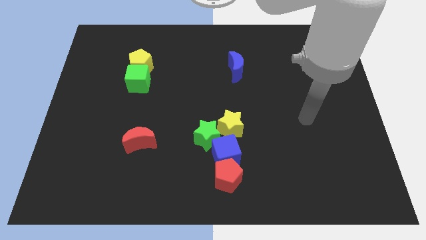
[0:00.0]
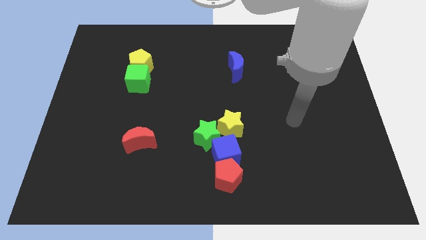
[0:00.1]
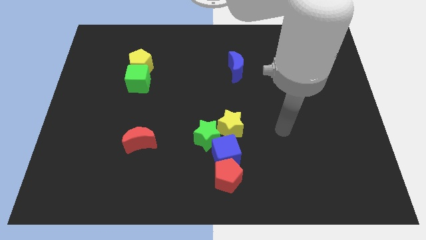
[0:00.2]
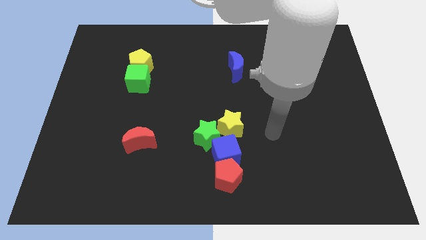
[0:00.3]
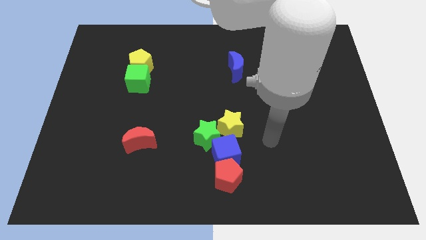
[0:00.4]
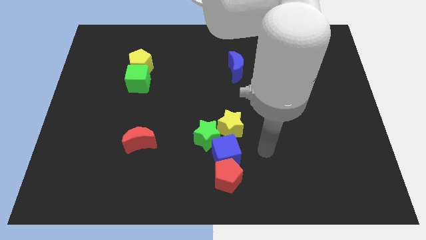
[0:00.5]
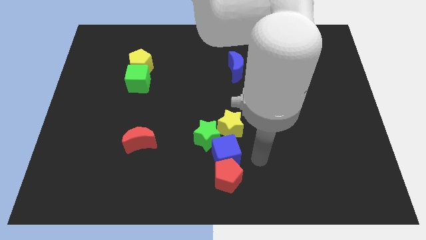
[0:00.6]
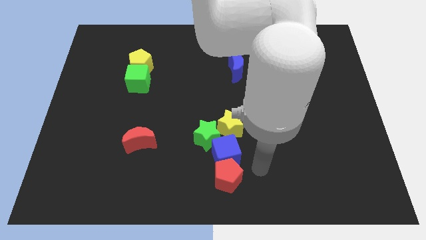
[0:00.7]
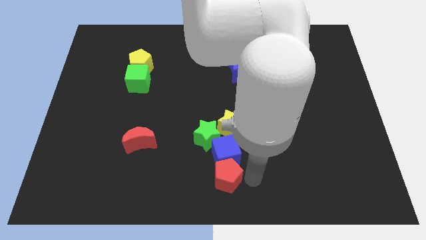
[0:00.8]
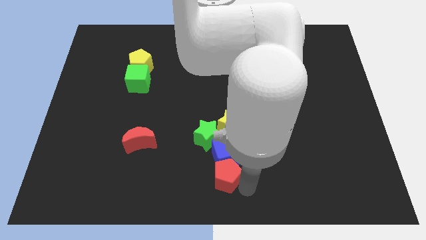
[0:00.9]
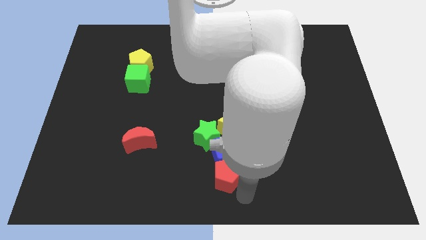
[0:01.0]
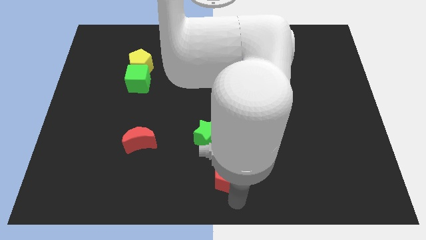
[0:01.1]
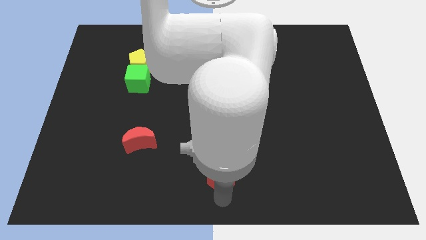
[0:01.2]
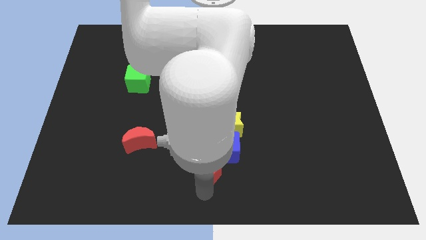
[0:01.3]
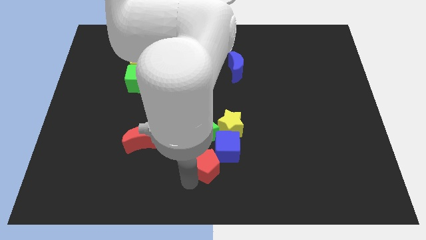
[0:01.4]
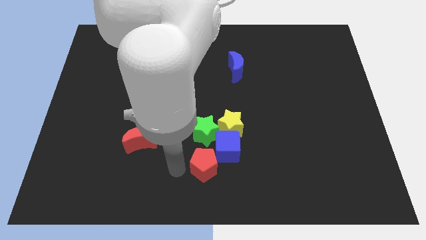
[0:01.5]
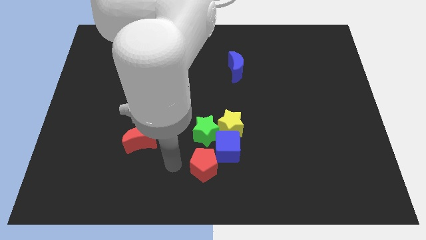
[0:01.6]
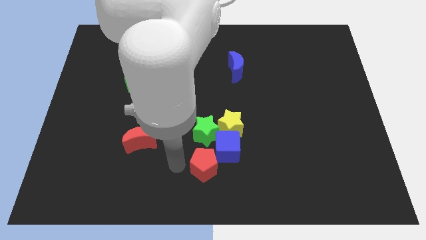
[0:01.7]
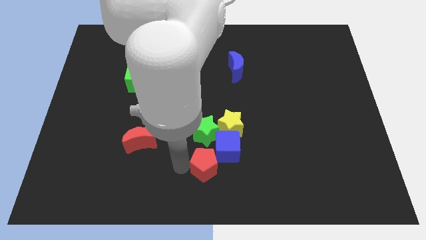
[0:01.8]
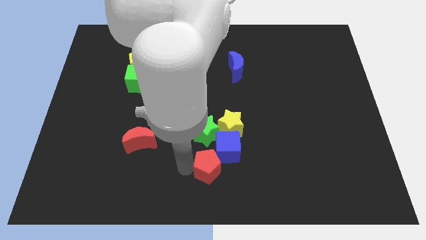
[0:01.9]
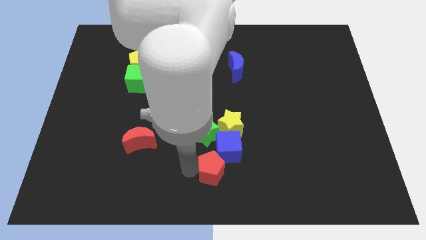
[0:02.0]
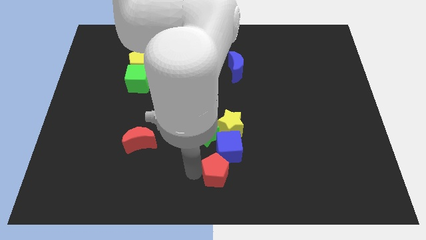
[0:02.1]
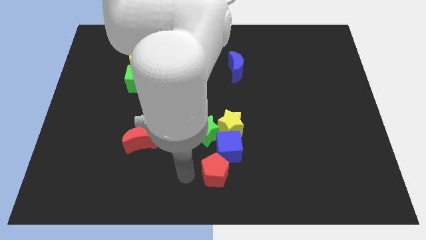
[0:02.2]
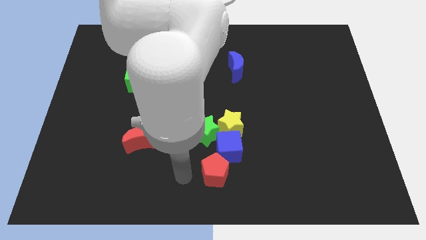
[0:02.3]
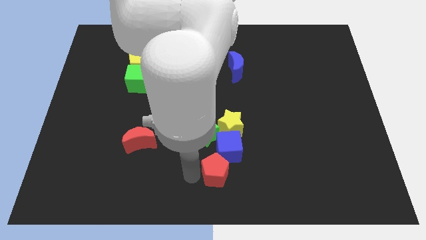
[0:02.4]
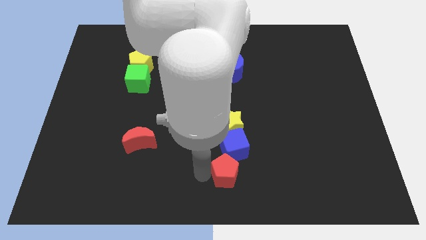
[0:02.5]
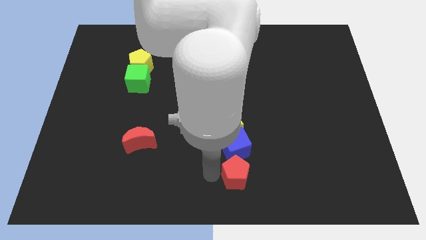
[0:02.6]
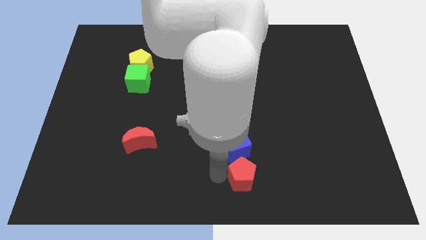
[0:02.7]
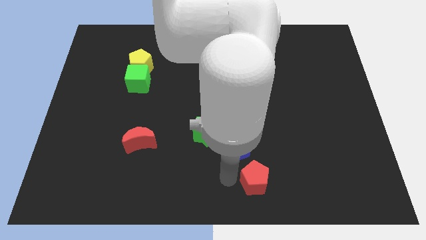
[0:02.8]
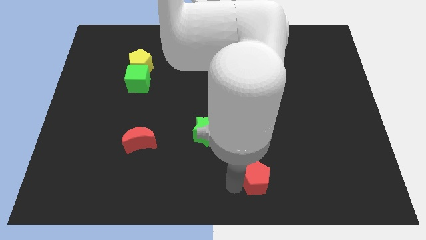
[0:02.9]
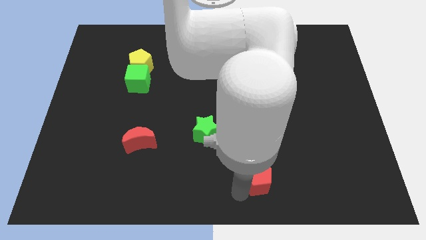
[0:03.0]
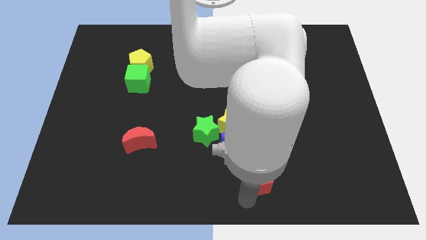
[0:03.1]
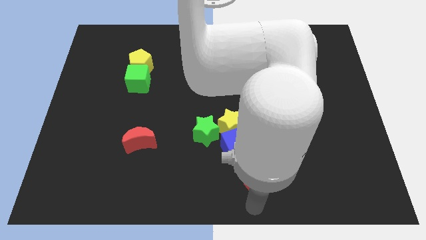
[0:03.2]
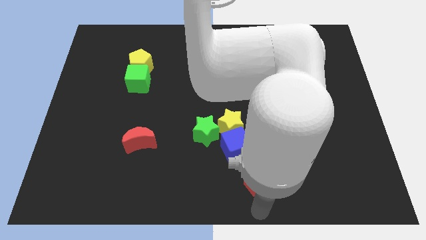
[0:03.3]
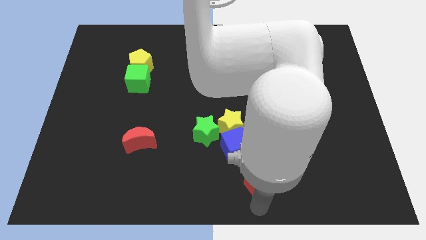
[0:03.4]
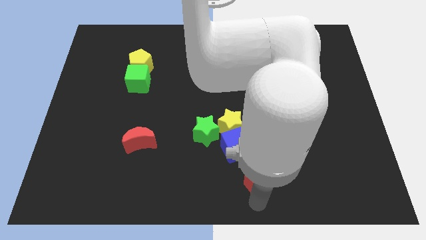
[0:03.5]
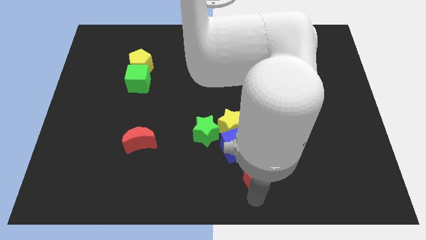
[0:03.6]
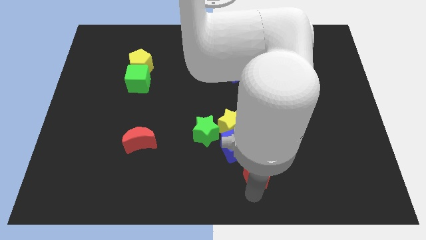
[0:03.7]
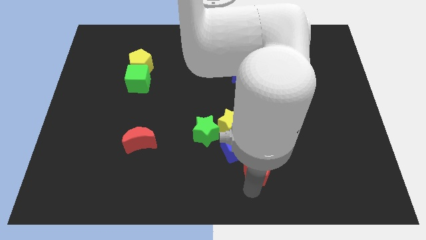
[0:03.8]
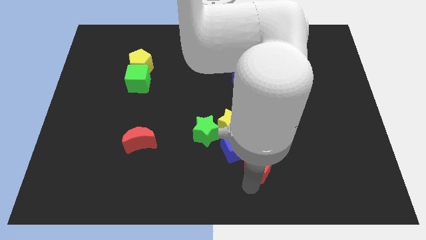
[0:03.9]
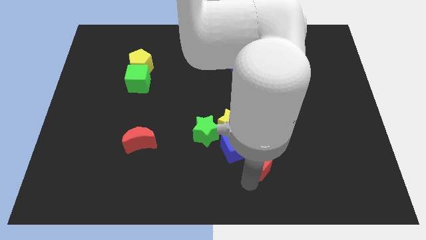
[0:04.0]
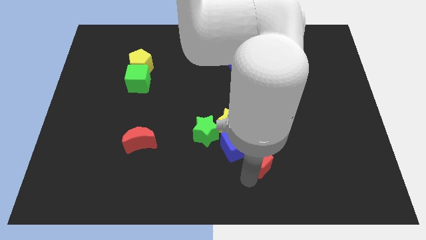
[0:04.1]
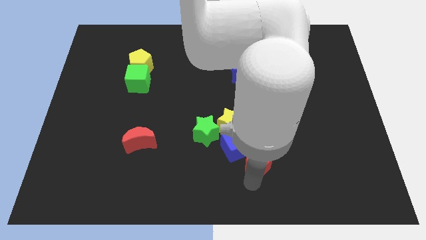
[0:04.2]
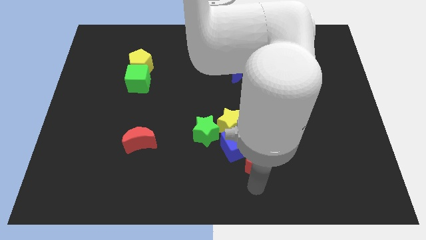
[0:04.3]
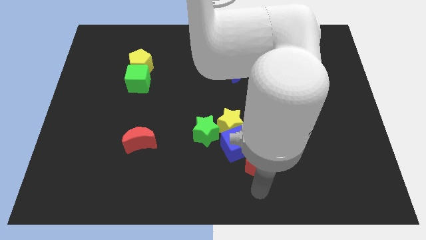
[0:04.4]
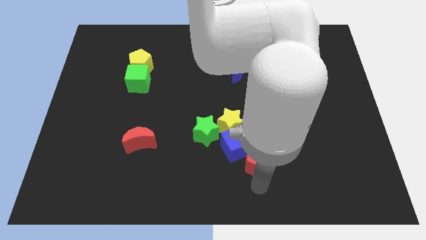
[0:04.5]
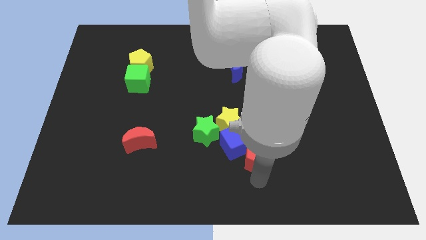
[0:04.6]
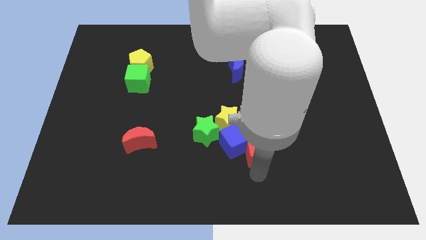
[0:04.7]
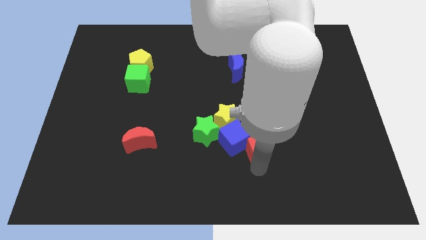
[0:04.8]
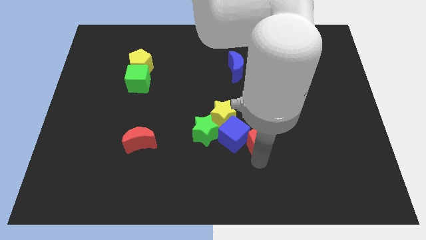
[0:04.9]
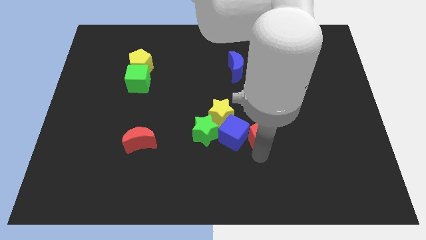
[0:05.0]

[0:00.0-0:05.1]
move the red pentagon a little upwards

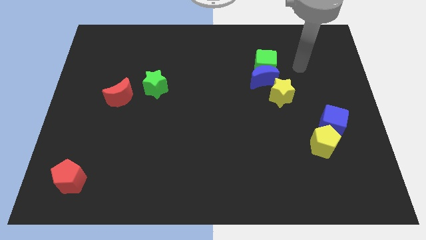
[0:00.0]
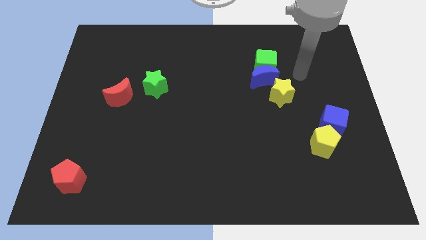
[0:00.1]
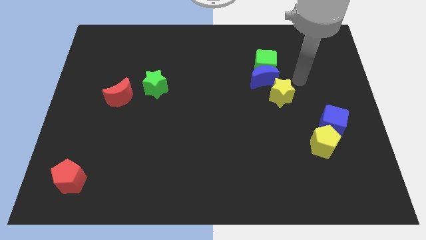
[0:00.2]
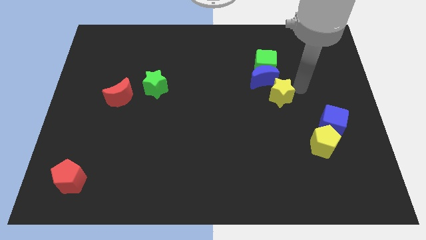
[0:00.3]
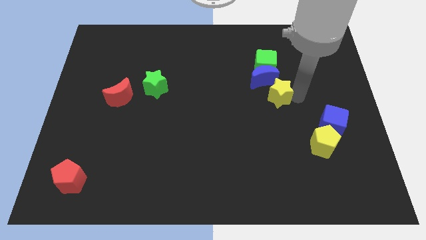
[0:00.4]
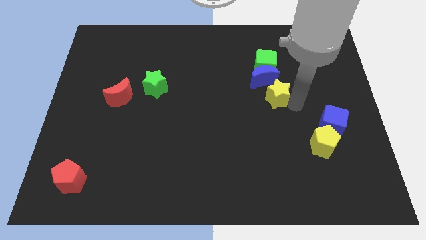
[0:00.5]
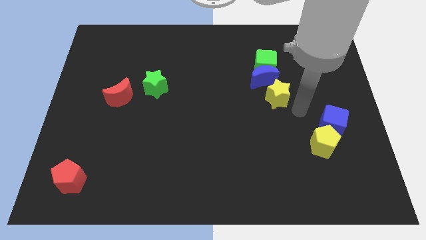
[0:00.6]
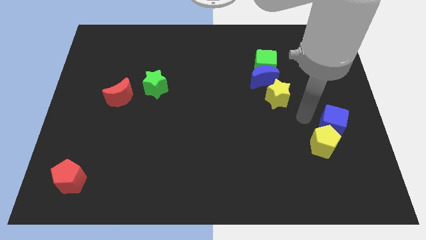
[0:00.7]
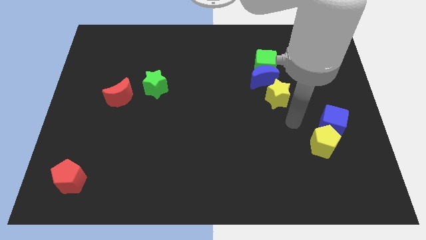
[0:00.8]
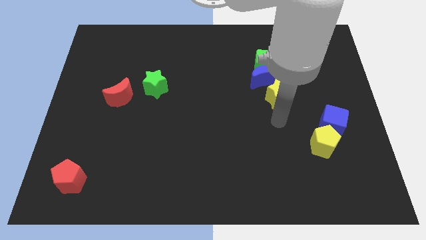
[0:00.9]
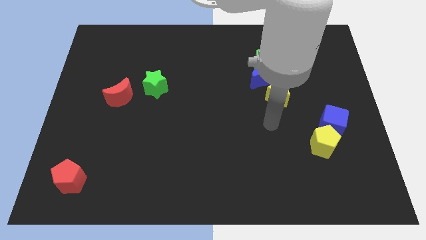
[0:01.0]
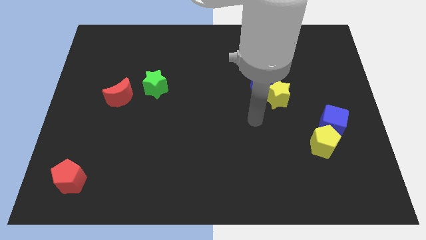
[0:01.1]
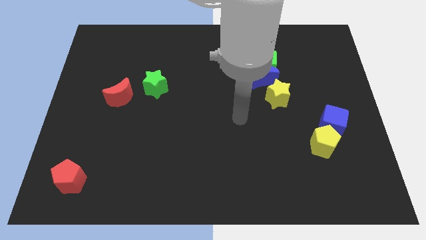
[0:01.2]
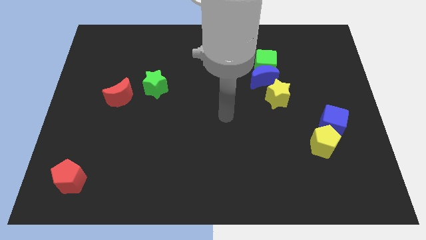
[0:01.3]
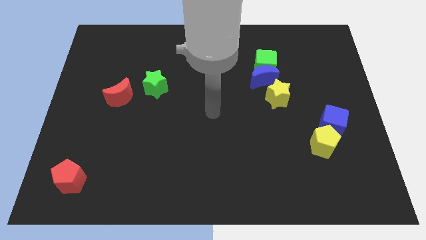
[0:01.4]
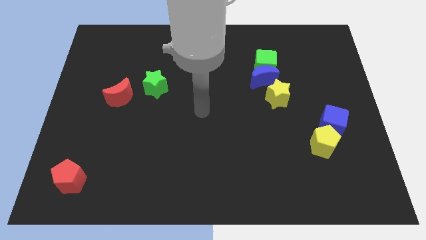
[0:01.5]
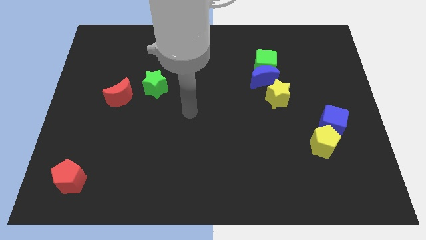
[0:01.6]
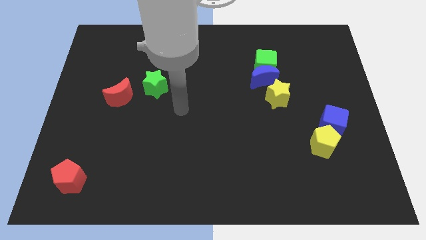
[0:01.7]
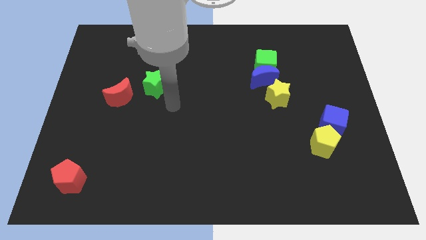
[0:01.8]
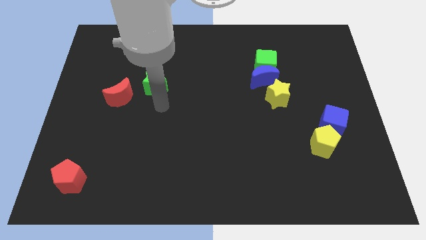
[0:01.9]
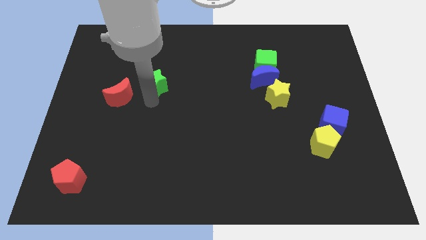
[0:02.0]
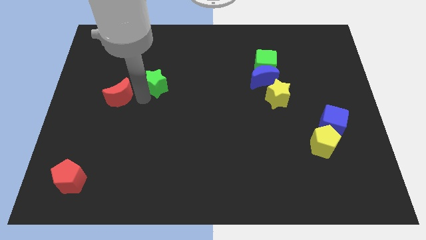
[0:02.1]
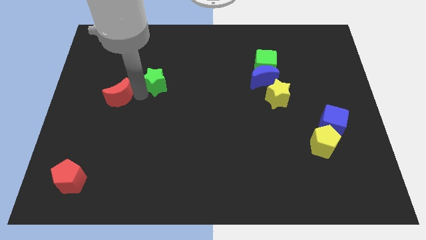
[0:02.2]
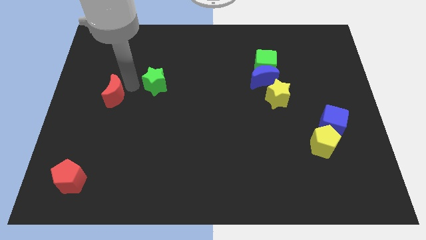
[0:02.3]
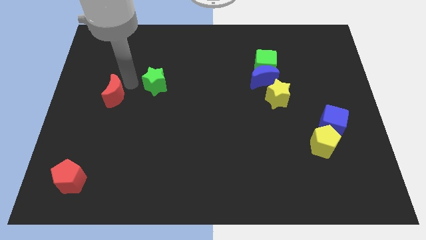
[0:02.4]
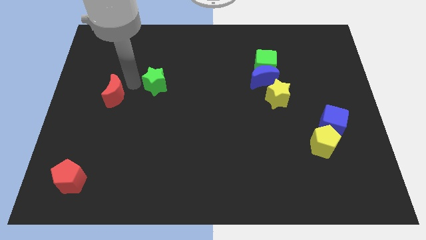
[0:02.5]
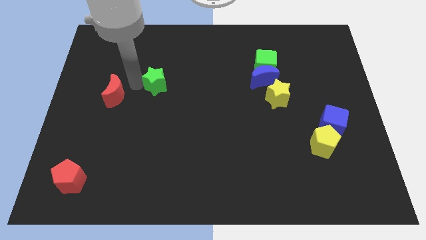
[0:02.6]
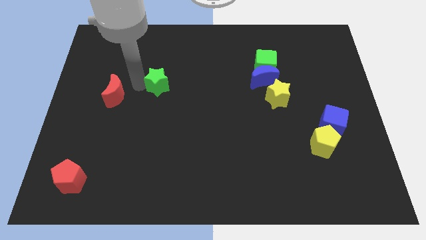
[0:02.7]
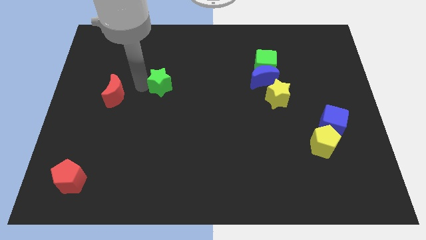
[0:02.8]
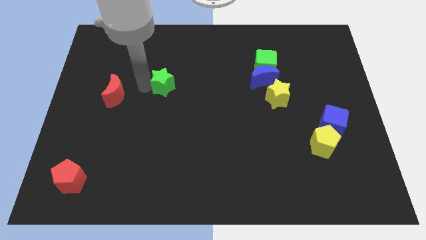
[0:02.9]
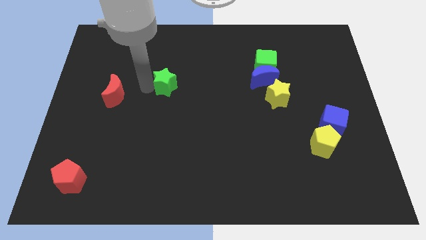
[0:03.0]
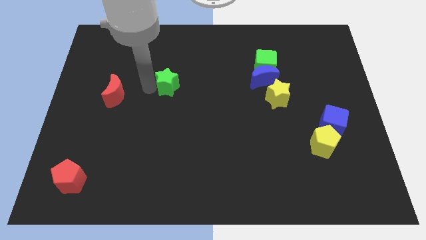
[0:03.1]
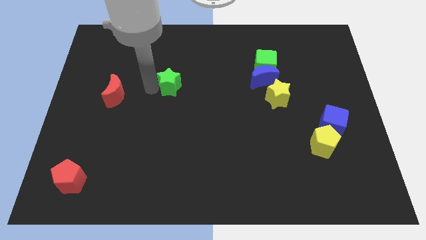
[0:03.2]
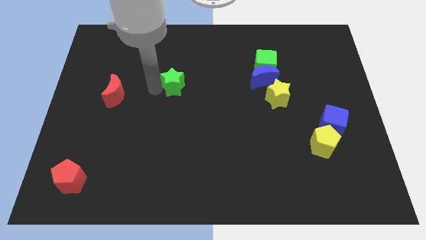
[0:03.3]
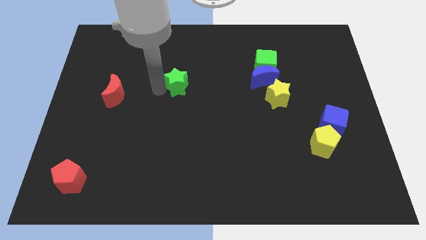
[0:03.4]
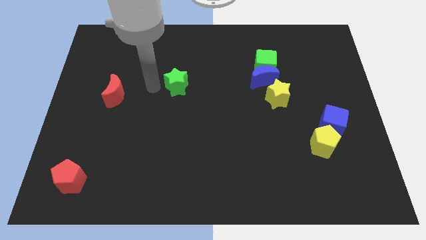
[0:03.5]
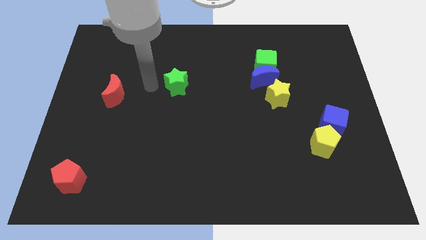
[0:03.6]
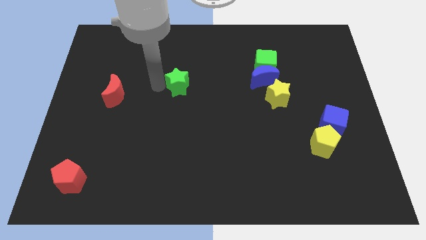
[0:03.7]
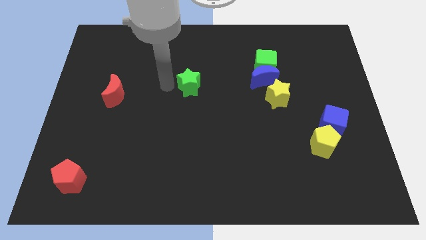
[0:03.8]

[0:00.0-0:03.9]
slide the green star to the right a little
